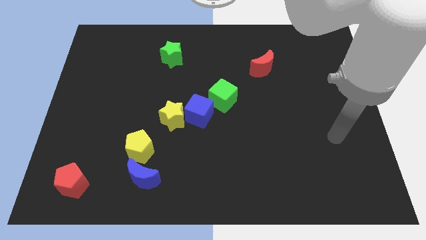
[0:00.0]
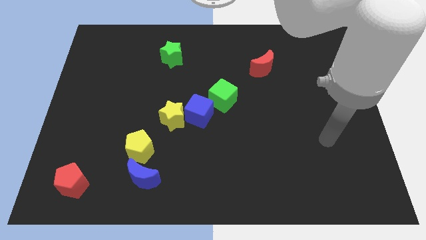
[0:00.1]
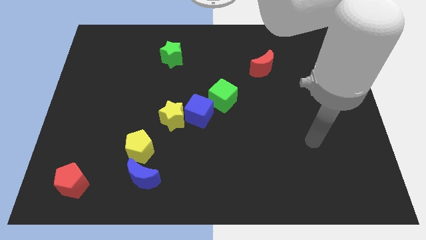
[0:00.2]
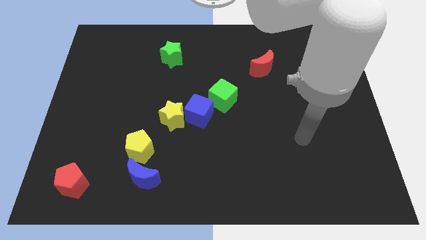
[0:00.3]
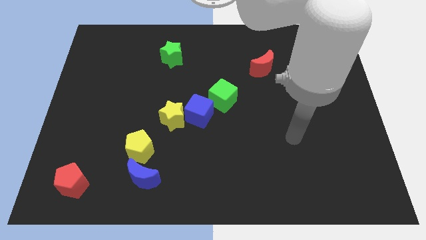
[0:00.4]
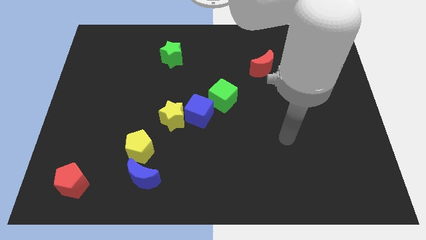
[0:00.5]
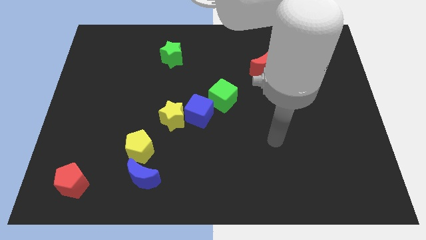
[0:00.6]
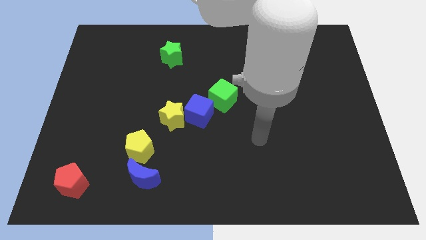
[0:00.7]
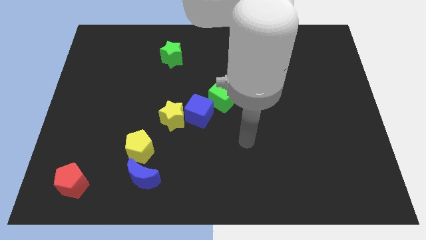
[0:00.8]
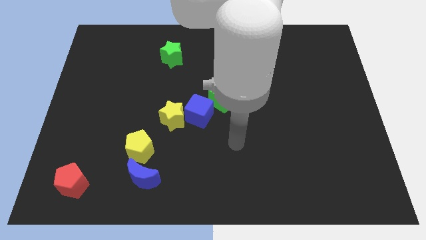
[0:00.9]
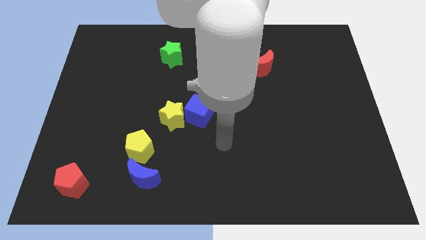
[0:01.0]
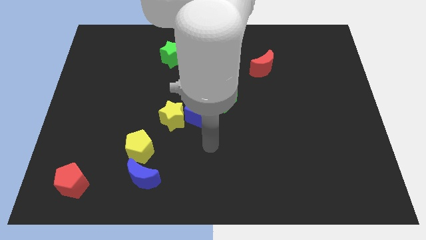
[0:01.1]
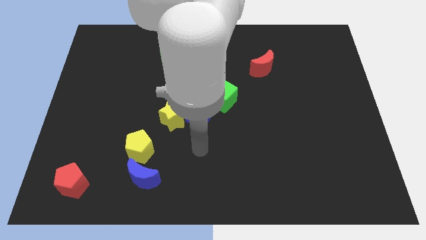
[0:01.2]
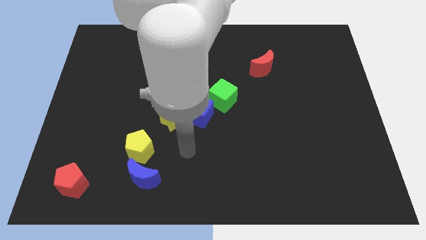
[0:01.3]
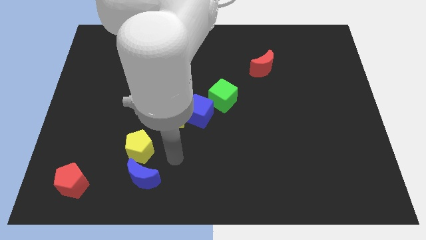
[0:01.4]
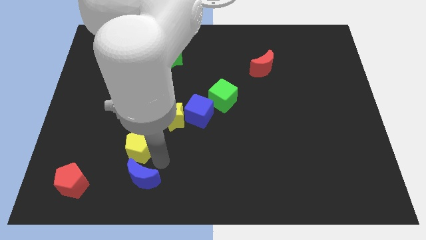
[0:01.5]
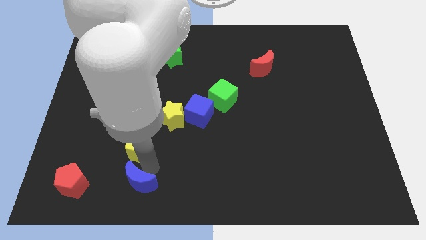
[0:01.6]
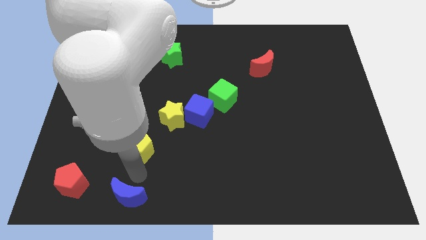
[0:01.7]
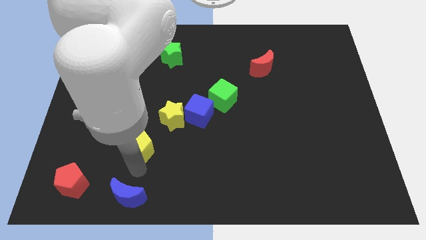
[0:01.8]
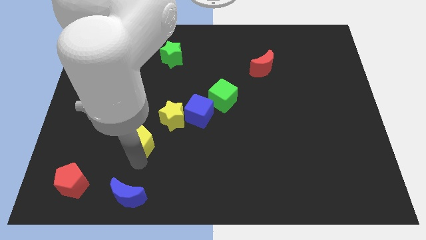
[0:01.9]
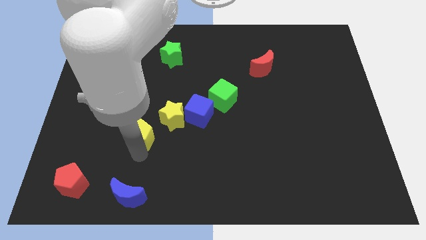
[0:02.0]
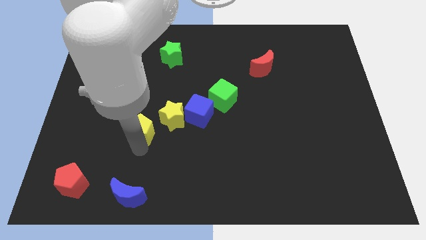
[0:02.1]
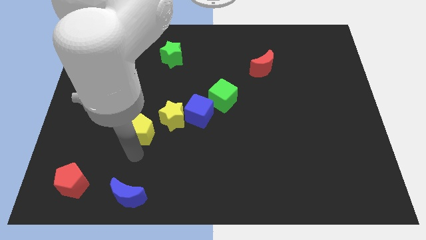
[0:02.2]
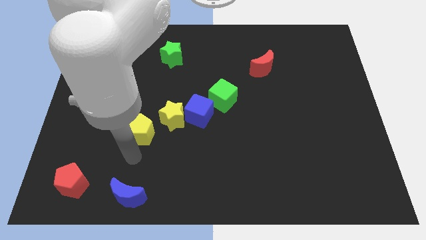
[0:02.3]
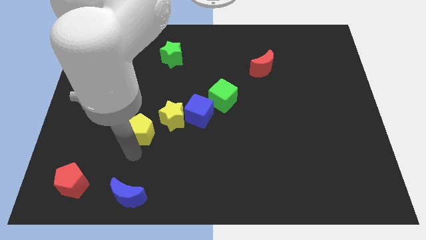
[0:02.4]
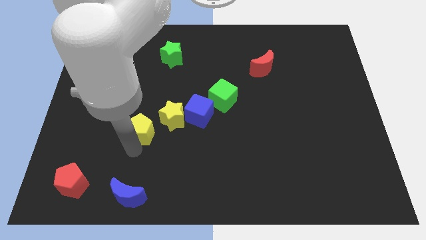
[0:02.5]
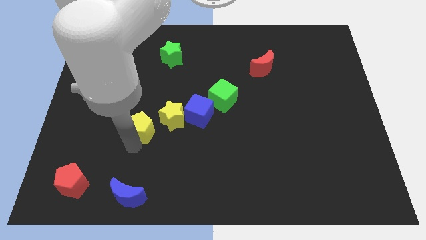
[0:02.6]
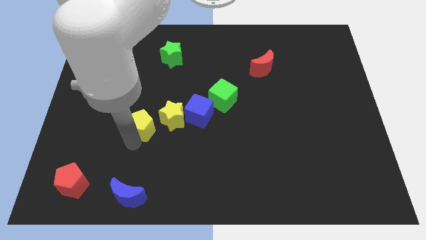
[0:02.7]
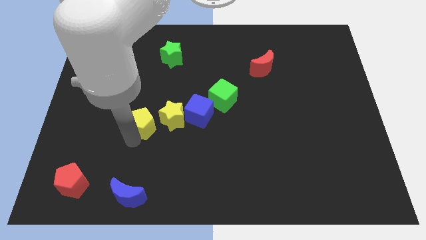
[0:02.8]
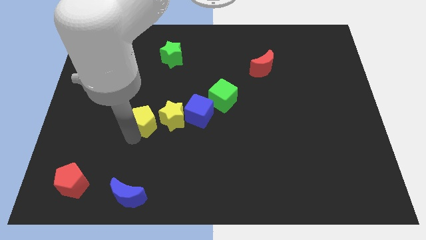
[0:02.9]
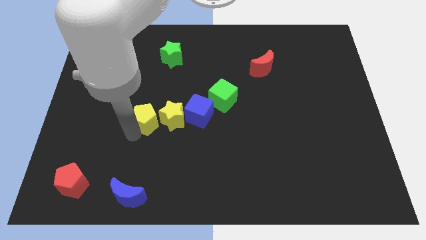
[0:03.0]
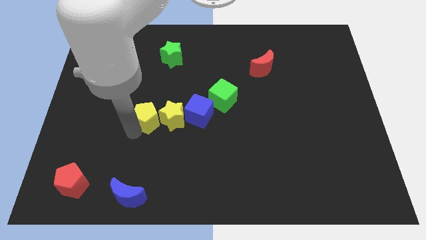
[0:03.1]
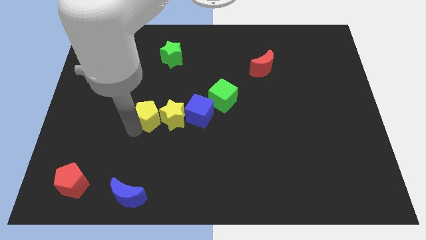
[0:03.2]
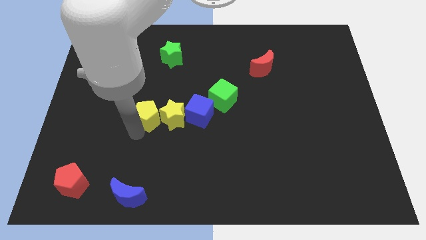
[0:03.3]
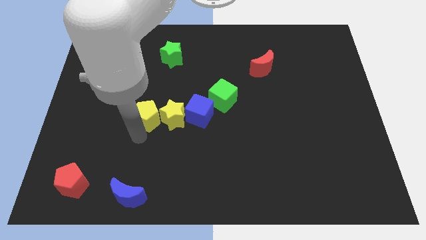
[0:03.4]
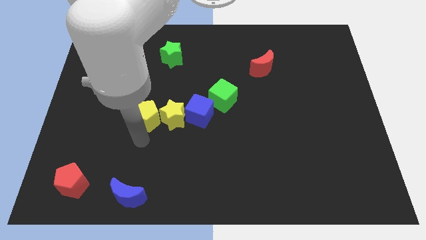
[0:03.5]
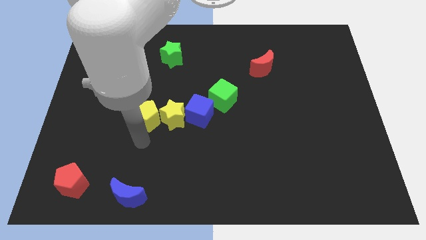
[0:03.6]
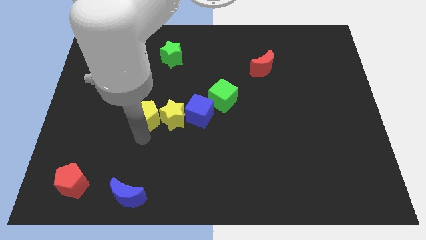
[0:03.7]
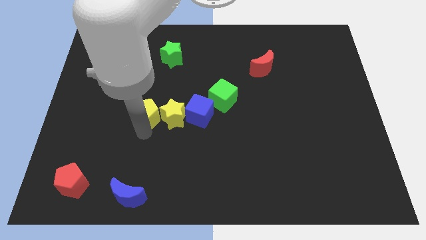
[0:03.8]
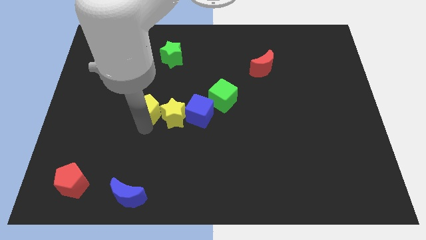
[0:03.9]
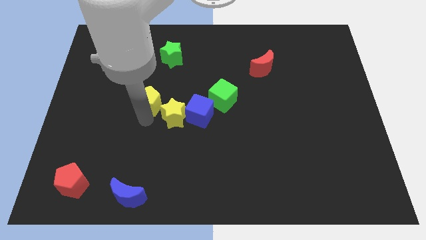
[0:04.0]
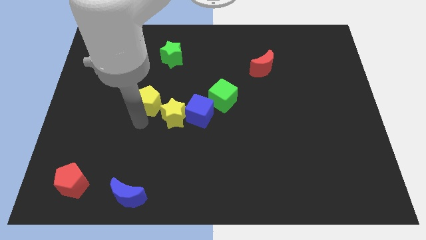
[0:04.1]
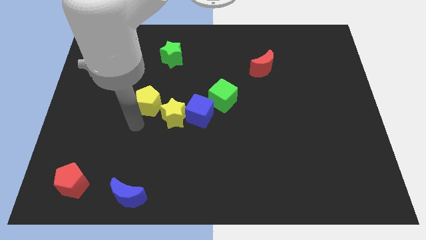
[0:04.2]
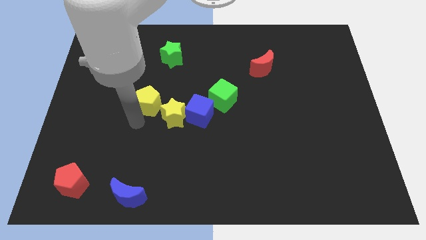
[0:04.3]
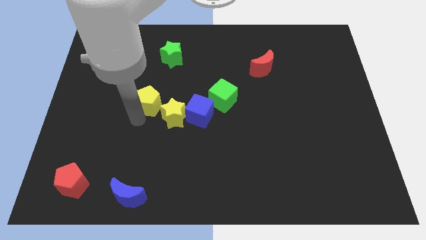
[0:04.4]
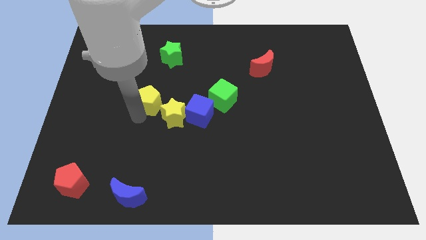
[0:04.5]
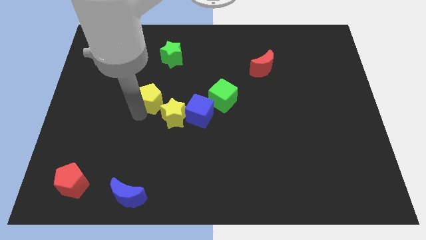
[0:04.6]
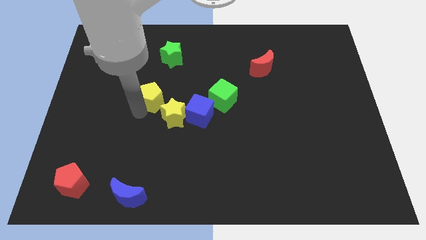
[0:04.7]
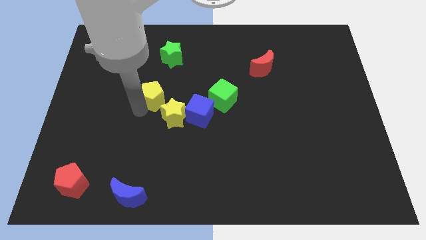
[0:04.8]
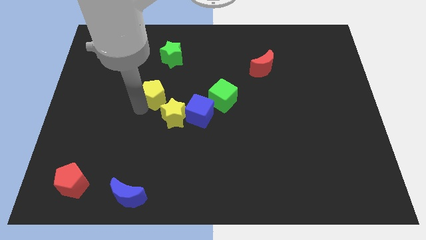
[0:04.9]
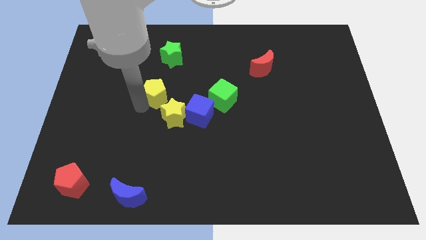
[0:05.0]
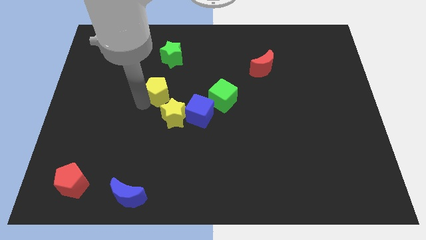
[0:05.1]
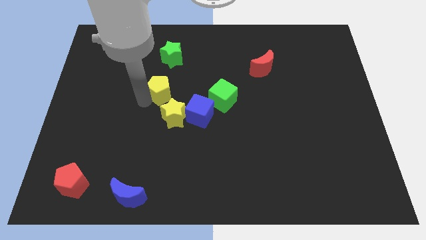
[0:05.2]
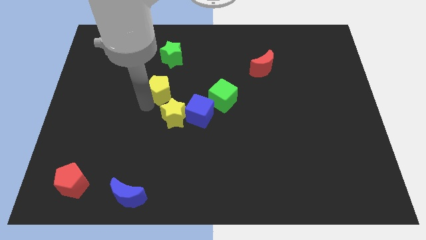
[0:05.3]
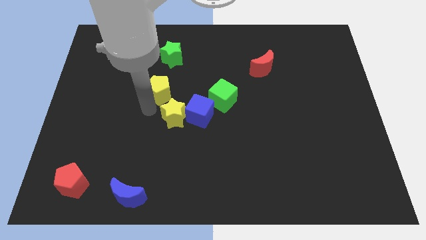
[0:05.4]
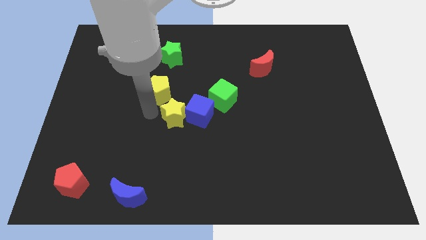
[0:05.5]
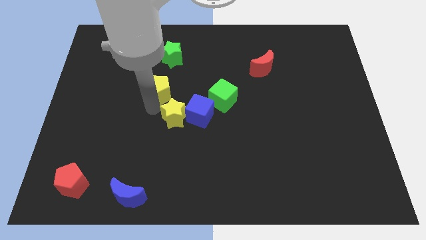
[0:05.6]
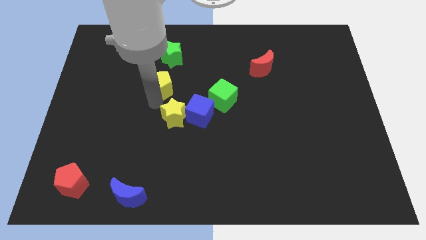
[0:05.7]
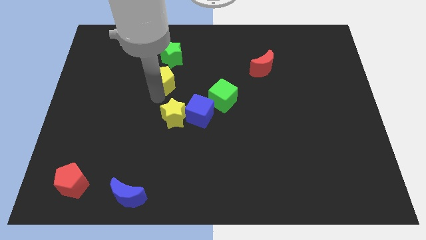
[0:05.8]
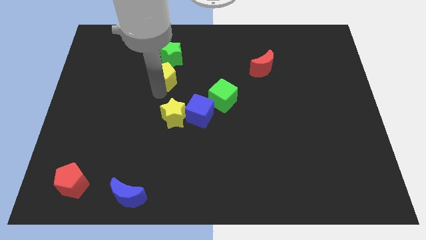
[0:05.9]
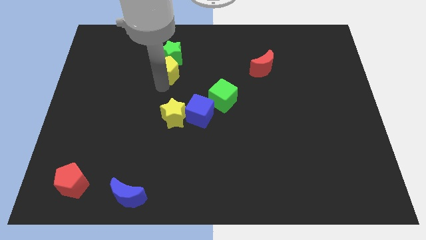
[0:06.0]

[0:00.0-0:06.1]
slide the yellow pentagon close to the green star
